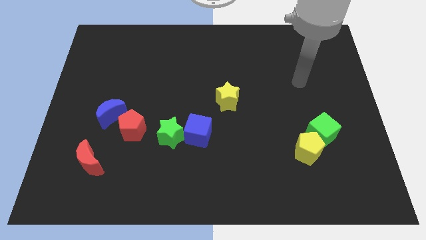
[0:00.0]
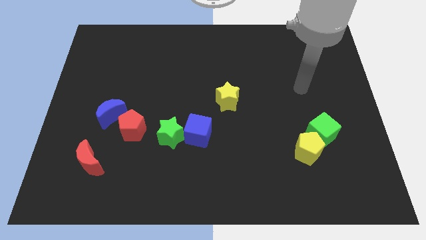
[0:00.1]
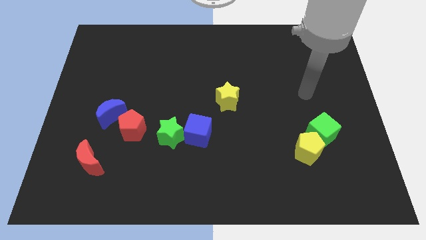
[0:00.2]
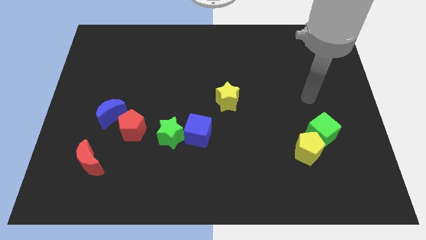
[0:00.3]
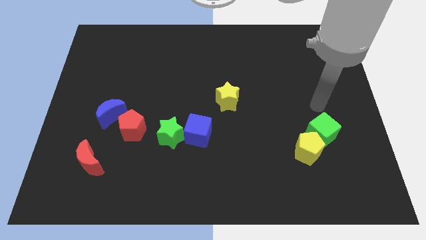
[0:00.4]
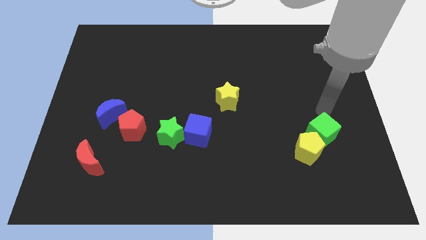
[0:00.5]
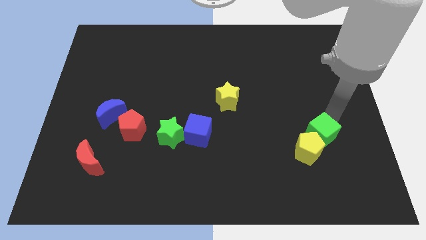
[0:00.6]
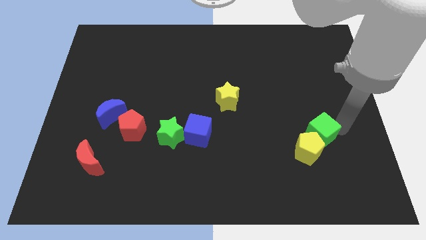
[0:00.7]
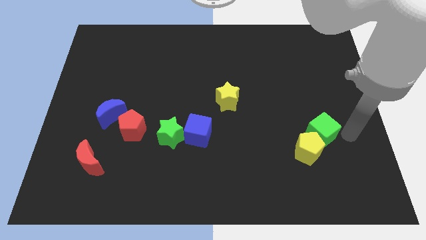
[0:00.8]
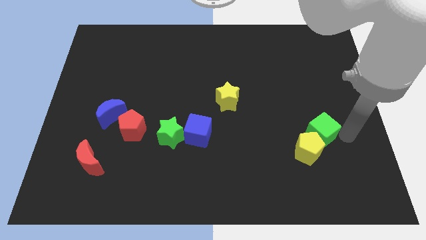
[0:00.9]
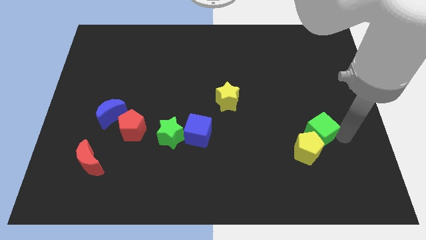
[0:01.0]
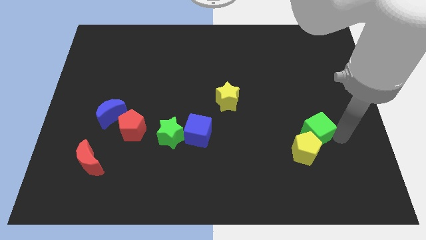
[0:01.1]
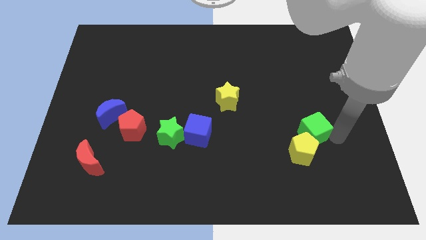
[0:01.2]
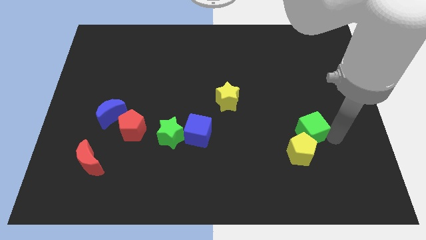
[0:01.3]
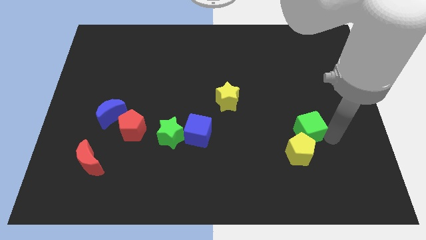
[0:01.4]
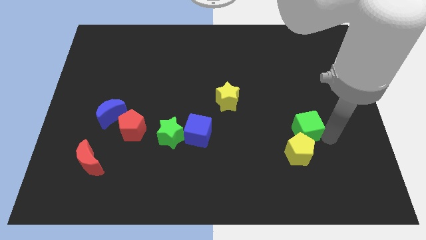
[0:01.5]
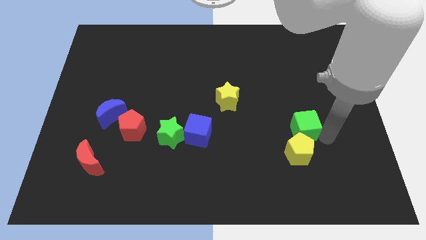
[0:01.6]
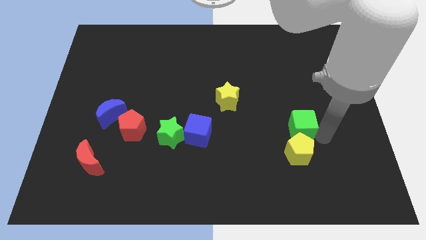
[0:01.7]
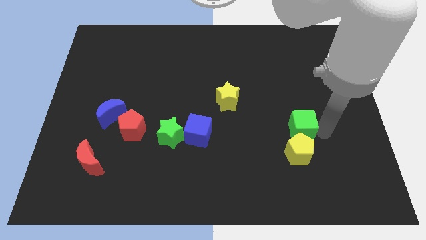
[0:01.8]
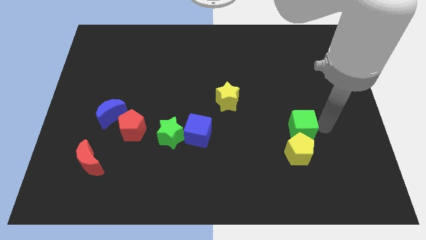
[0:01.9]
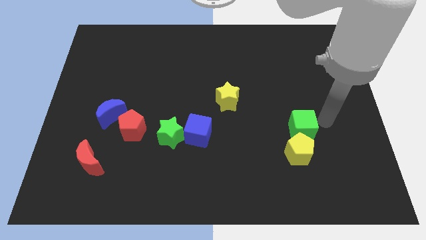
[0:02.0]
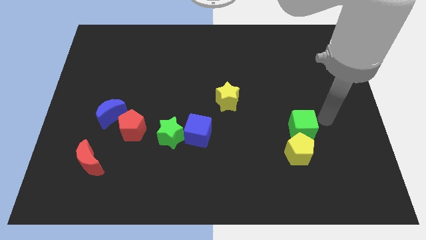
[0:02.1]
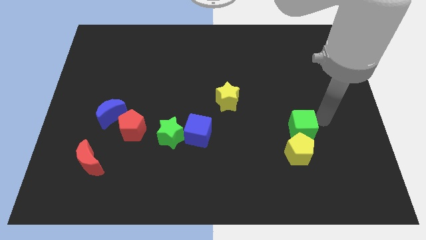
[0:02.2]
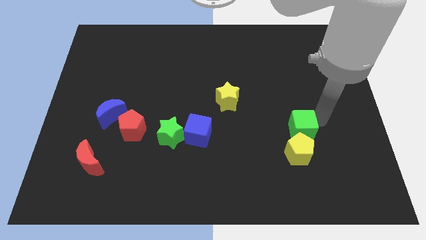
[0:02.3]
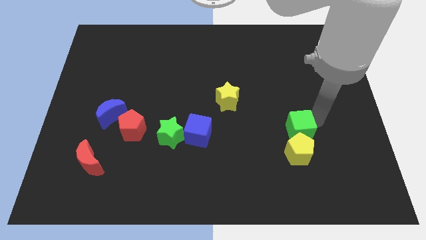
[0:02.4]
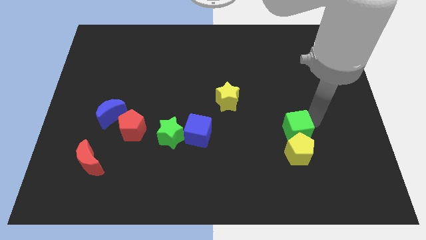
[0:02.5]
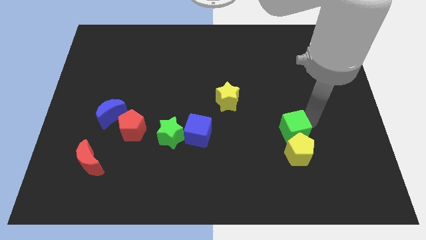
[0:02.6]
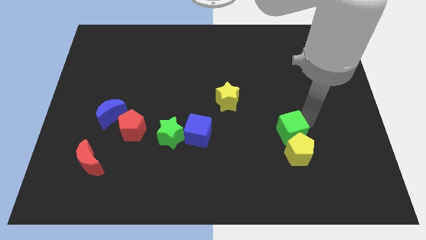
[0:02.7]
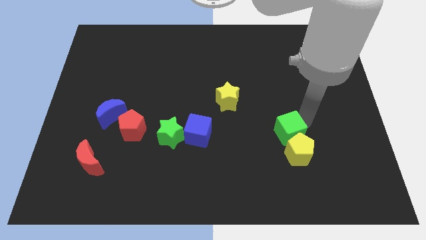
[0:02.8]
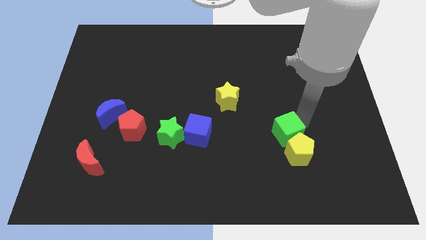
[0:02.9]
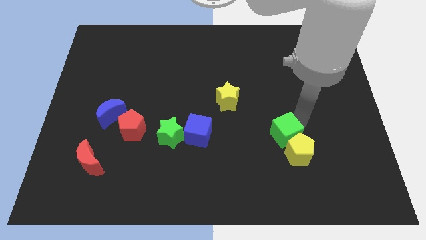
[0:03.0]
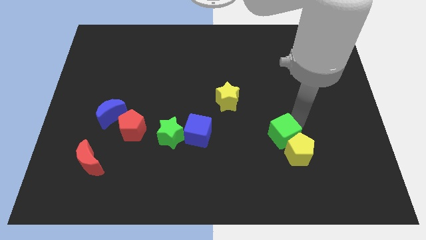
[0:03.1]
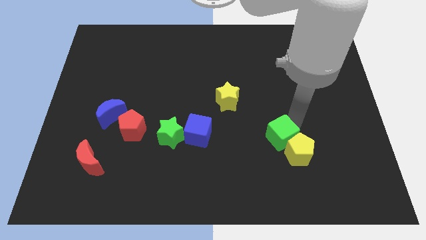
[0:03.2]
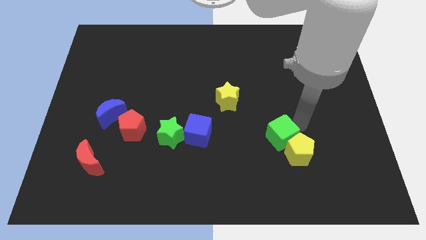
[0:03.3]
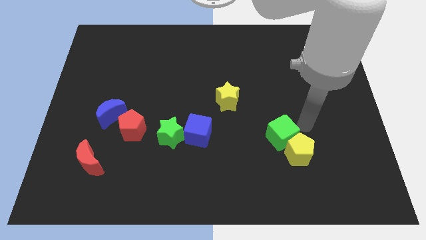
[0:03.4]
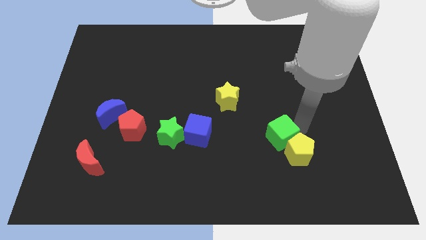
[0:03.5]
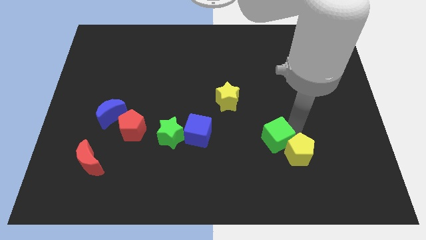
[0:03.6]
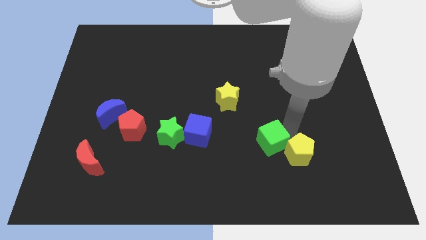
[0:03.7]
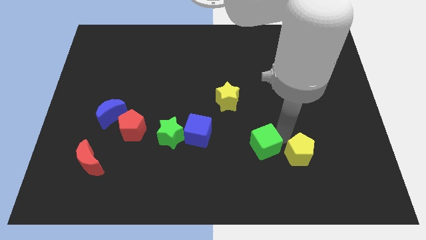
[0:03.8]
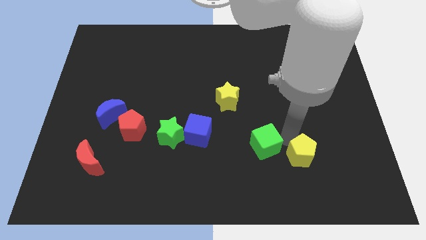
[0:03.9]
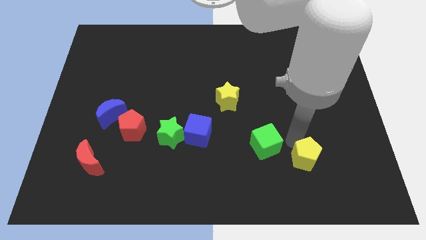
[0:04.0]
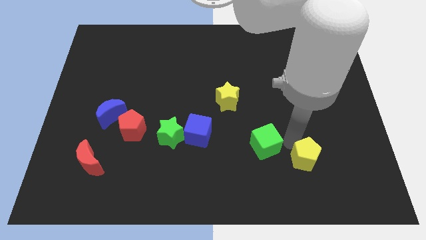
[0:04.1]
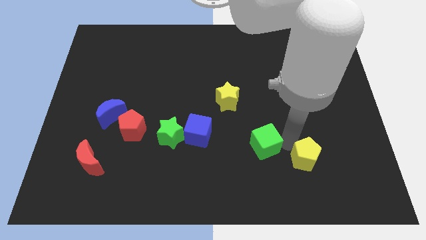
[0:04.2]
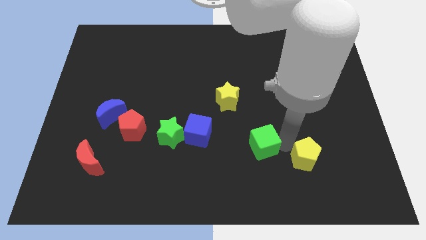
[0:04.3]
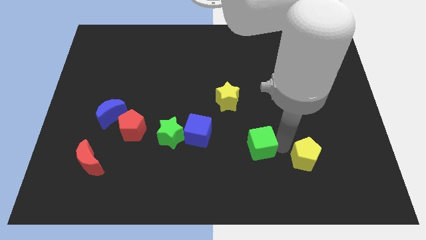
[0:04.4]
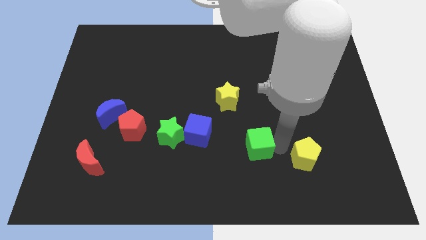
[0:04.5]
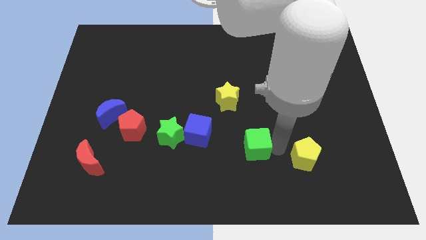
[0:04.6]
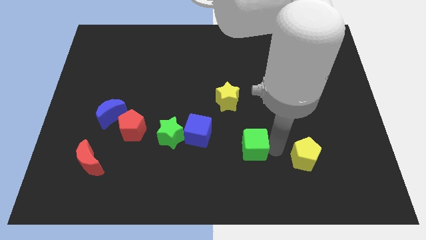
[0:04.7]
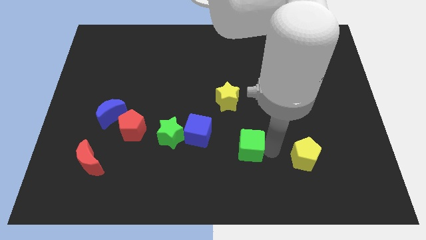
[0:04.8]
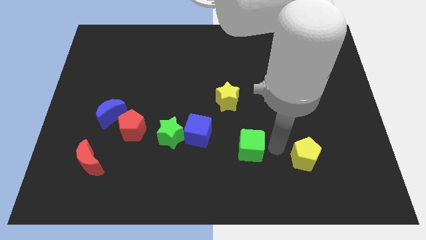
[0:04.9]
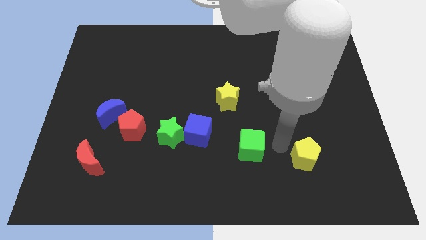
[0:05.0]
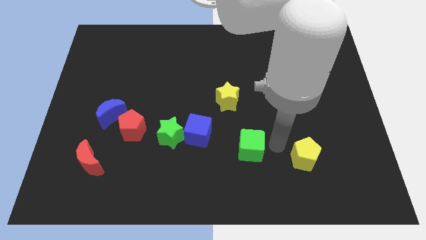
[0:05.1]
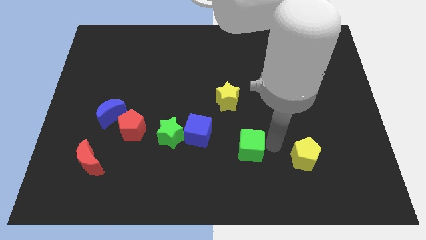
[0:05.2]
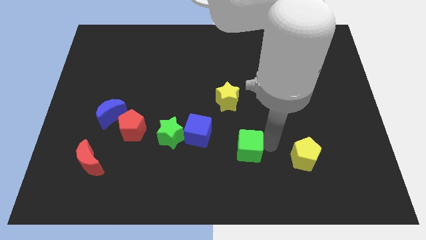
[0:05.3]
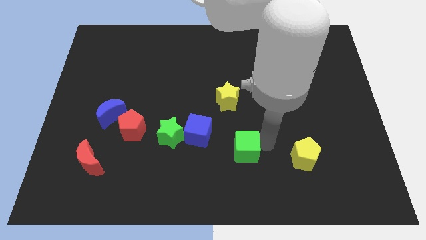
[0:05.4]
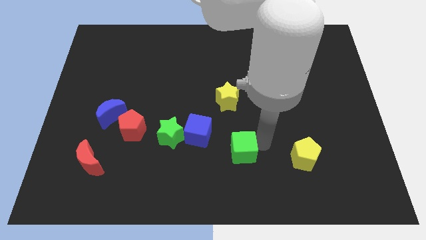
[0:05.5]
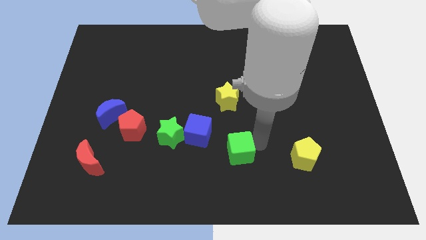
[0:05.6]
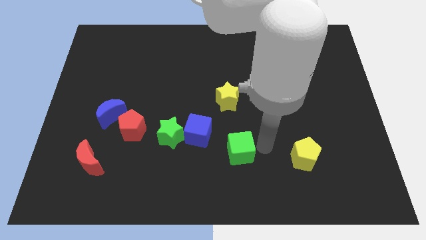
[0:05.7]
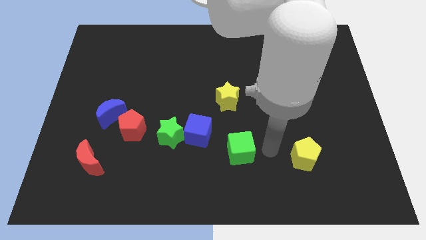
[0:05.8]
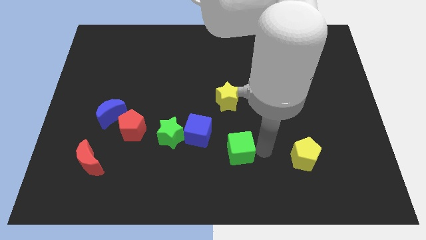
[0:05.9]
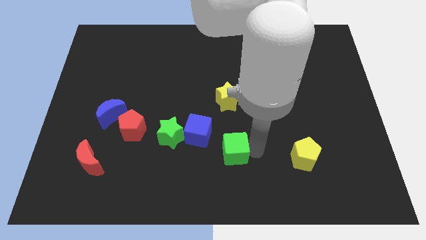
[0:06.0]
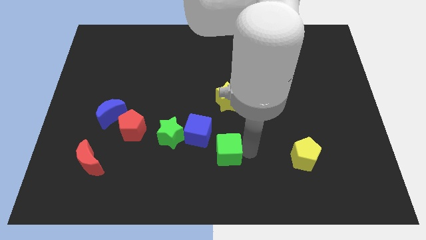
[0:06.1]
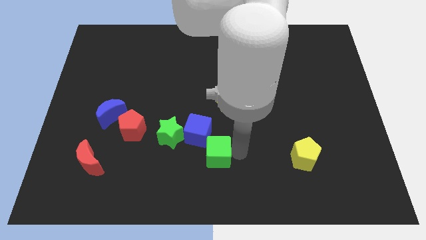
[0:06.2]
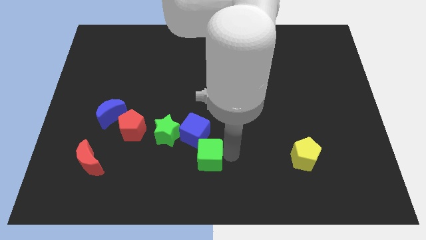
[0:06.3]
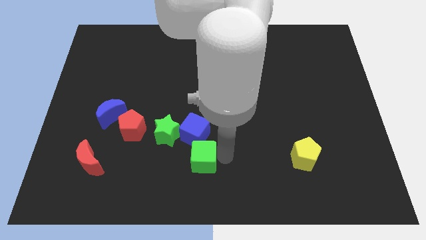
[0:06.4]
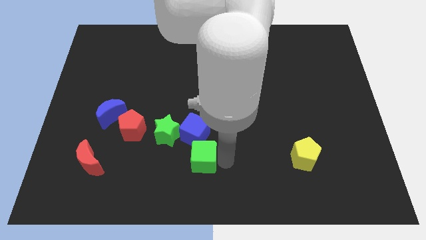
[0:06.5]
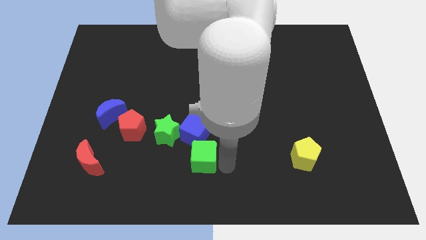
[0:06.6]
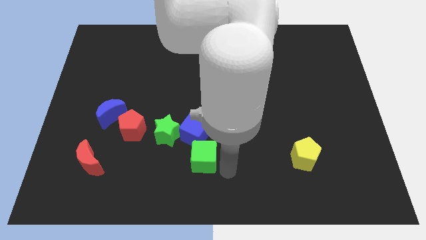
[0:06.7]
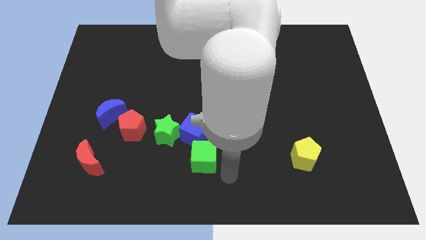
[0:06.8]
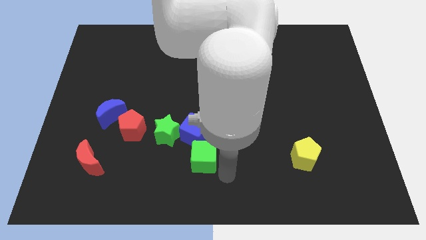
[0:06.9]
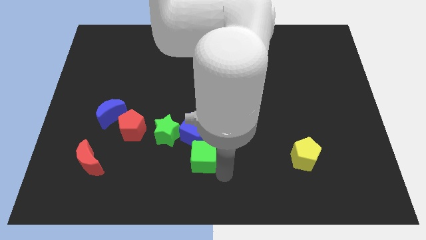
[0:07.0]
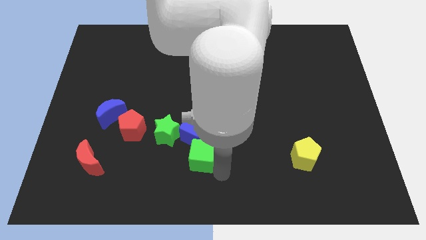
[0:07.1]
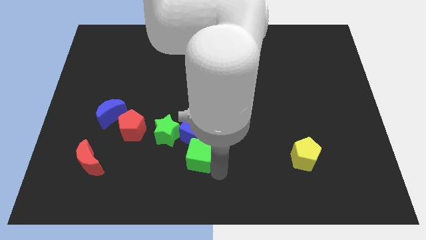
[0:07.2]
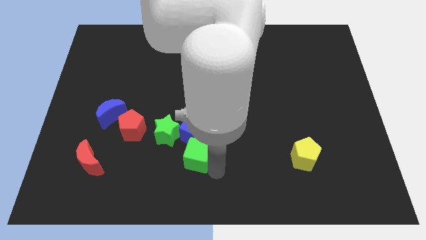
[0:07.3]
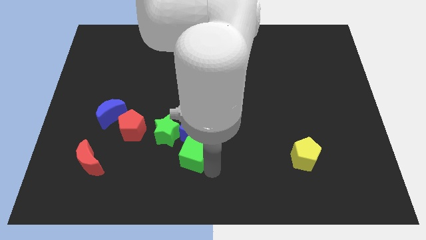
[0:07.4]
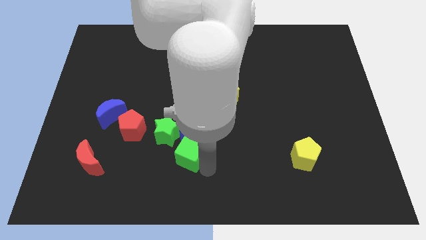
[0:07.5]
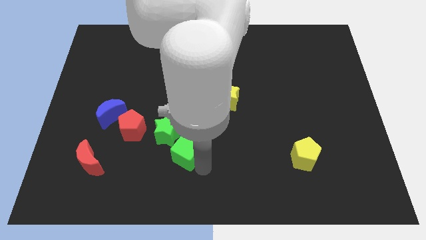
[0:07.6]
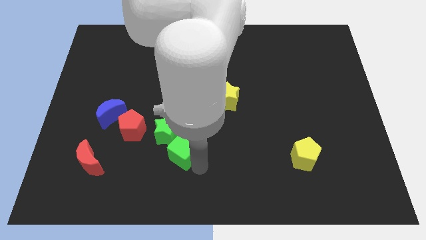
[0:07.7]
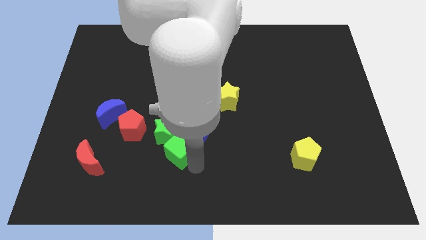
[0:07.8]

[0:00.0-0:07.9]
push the green cube towards the green star
